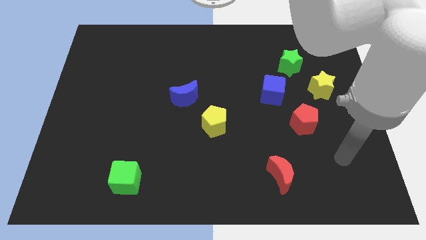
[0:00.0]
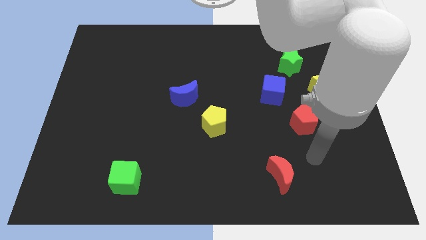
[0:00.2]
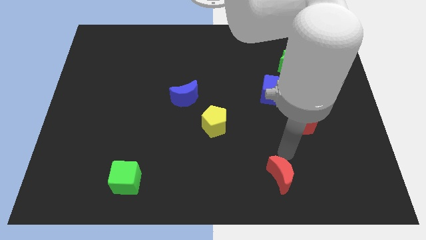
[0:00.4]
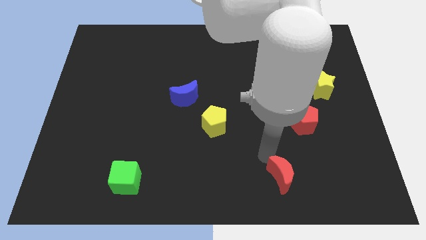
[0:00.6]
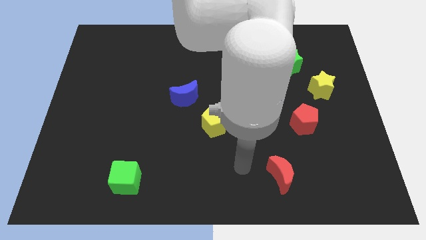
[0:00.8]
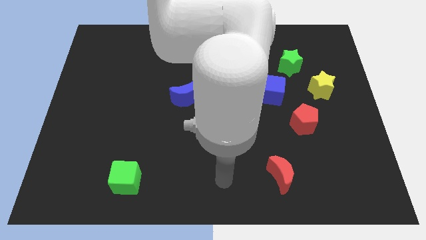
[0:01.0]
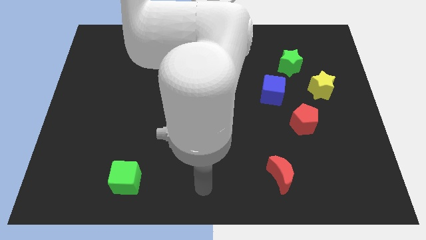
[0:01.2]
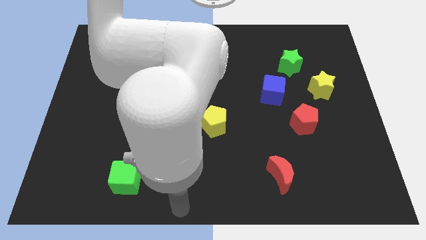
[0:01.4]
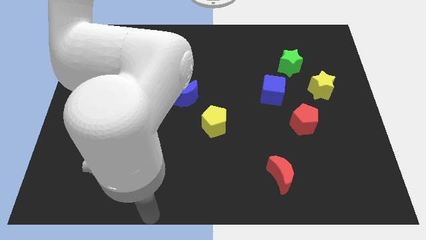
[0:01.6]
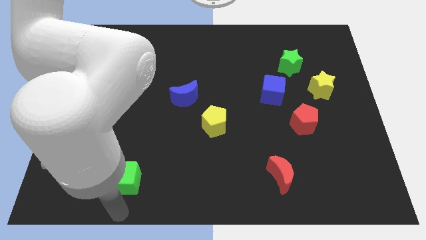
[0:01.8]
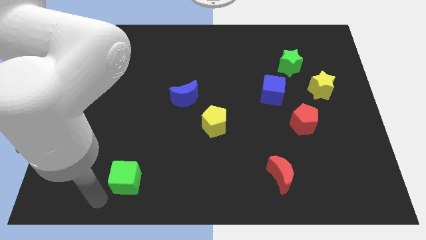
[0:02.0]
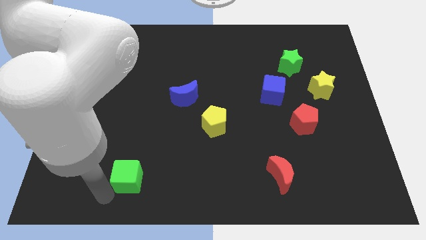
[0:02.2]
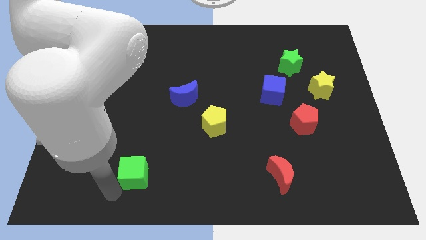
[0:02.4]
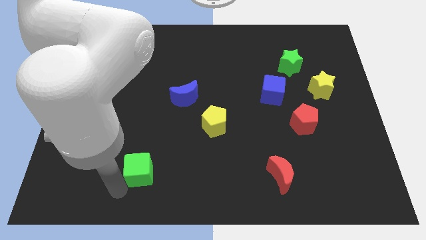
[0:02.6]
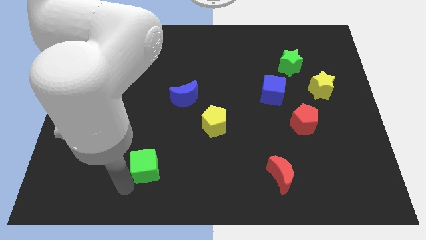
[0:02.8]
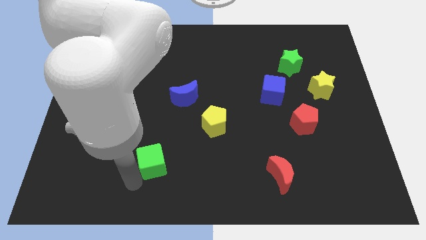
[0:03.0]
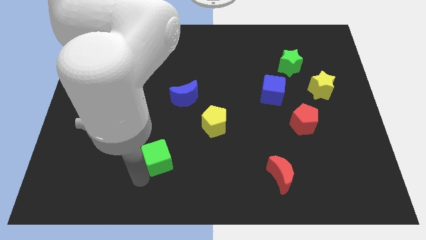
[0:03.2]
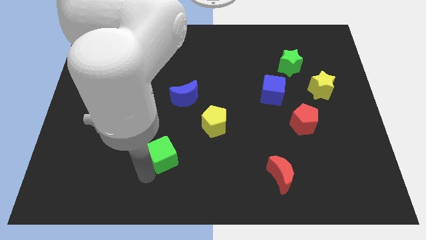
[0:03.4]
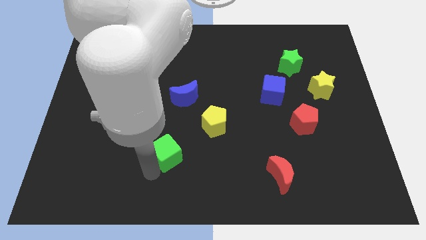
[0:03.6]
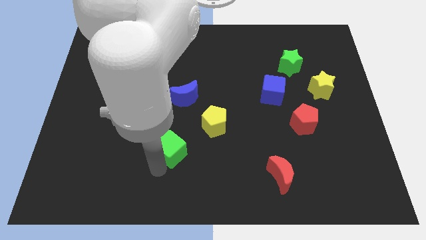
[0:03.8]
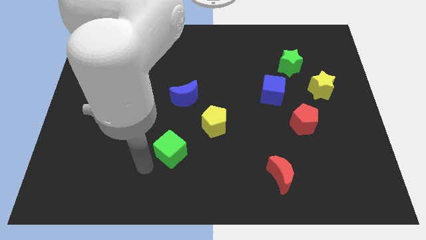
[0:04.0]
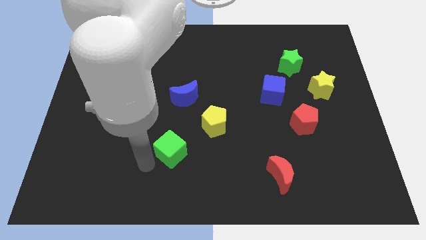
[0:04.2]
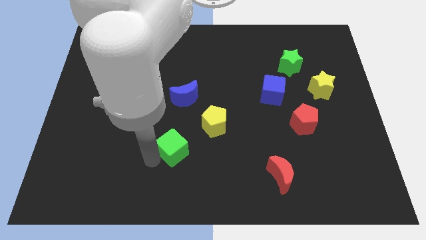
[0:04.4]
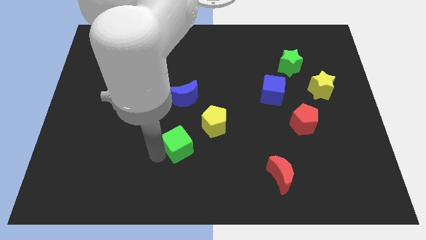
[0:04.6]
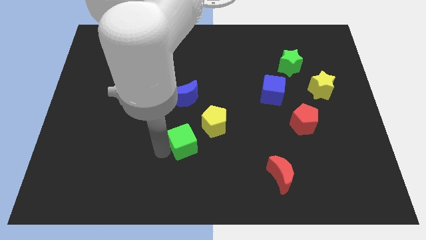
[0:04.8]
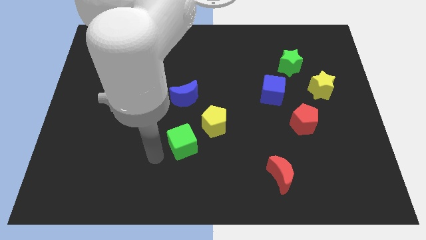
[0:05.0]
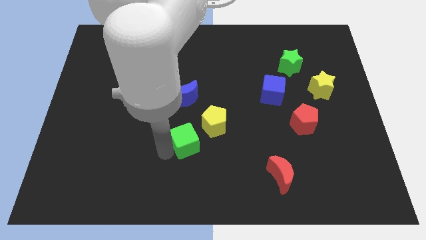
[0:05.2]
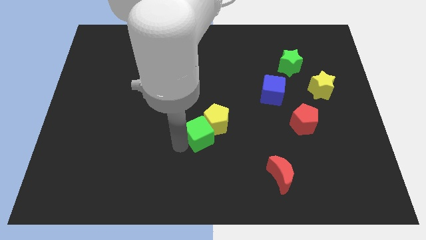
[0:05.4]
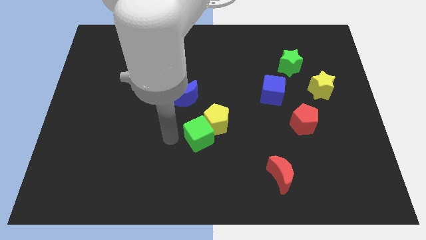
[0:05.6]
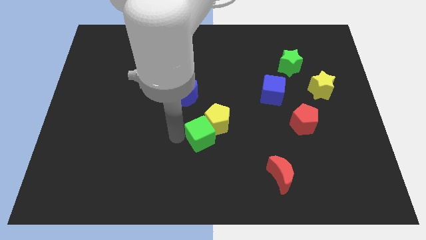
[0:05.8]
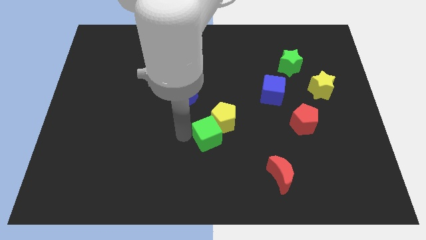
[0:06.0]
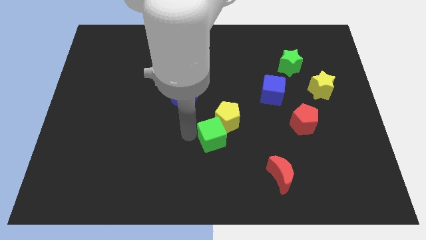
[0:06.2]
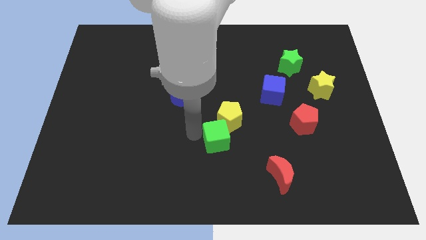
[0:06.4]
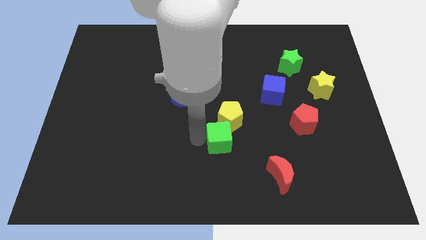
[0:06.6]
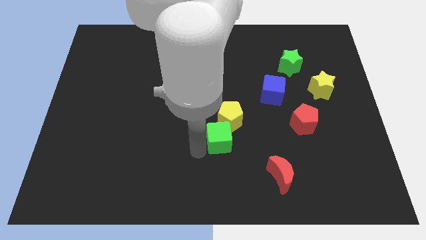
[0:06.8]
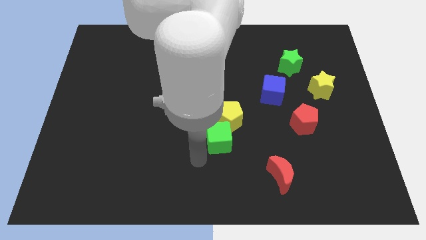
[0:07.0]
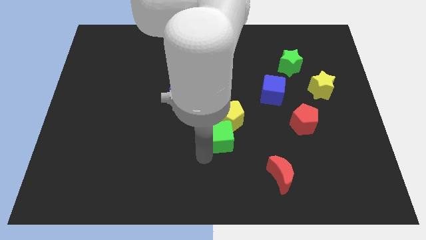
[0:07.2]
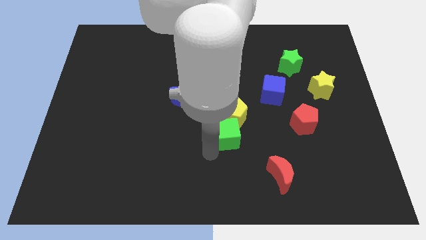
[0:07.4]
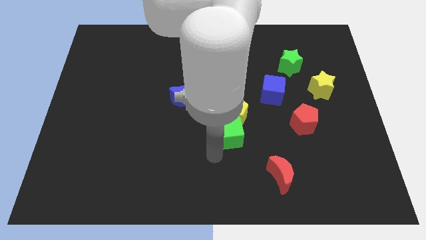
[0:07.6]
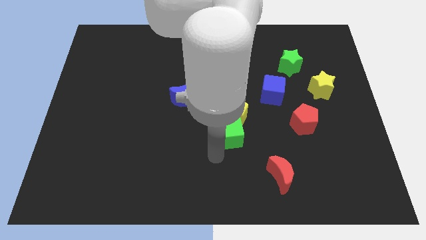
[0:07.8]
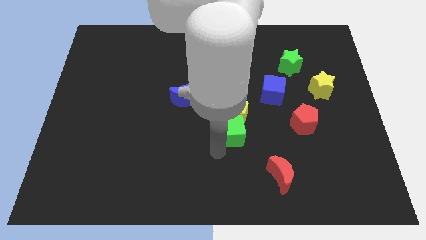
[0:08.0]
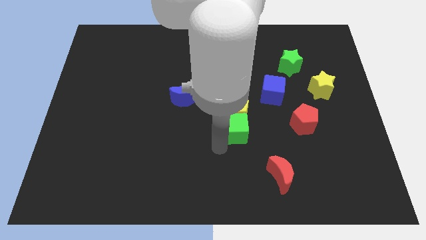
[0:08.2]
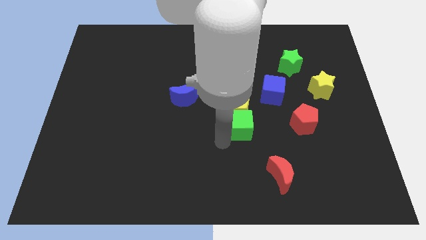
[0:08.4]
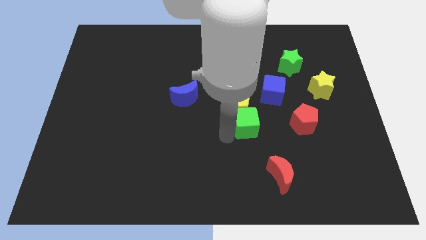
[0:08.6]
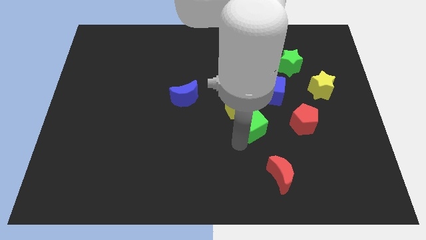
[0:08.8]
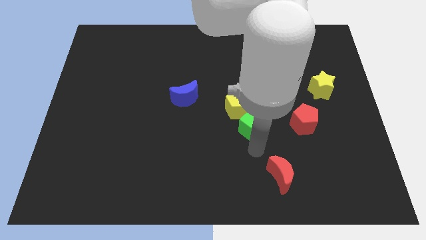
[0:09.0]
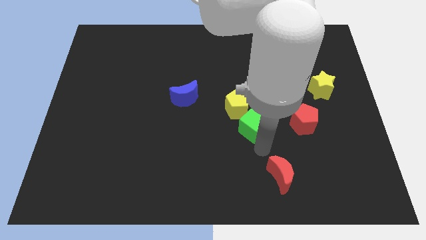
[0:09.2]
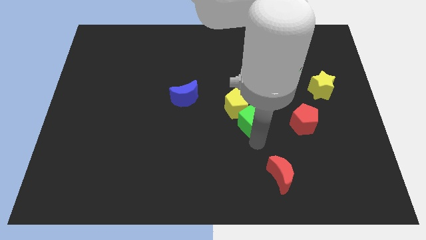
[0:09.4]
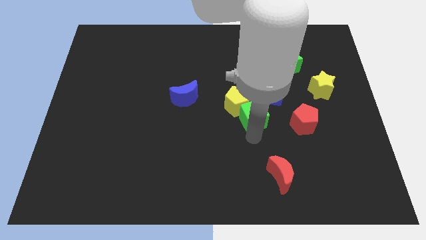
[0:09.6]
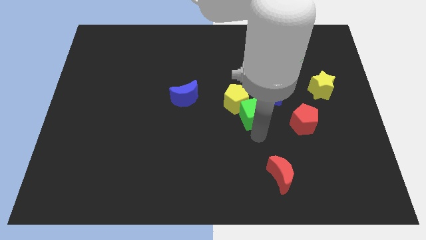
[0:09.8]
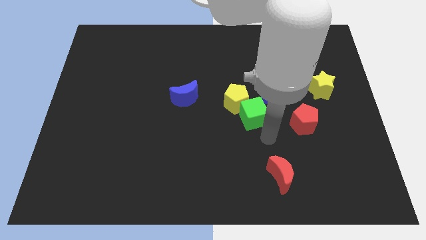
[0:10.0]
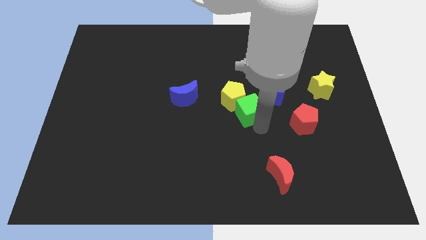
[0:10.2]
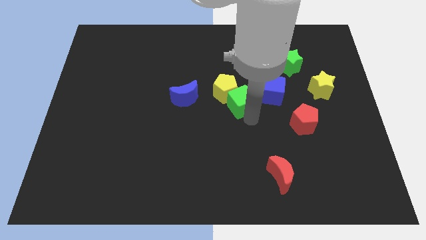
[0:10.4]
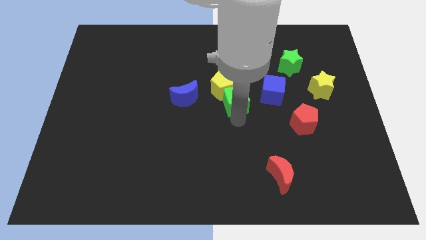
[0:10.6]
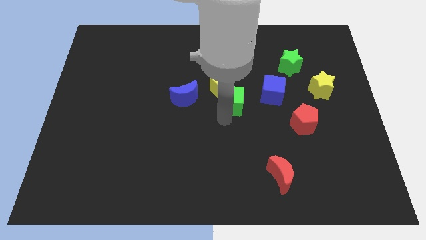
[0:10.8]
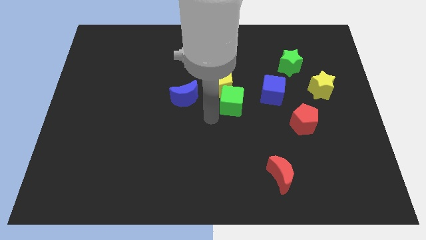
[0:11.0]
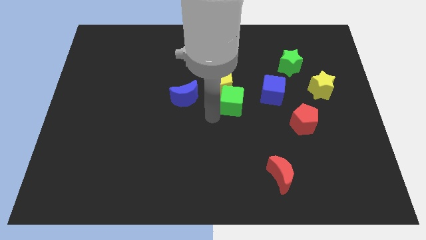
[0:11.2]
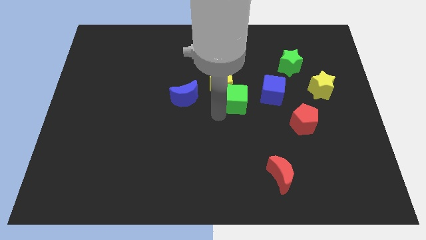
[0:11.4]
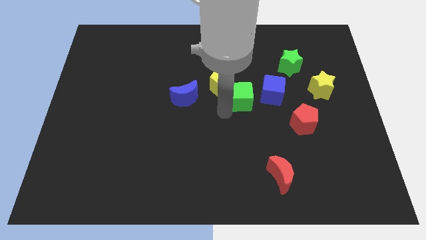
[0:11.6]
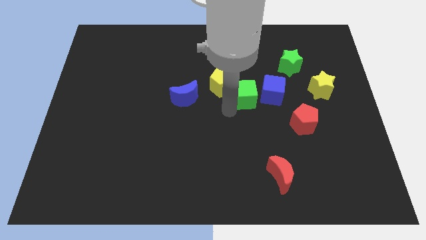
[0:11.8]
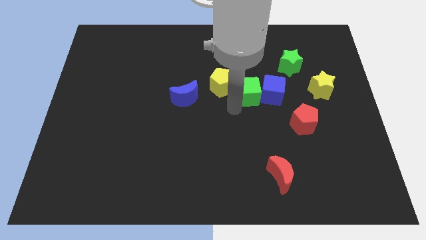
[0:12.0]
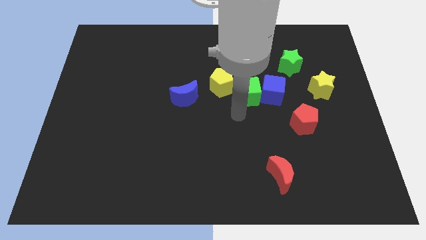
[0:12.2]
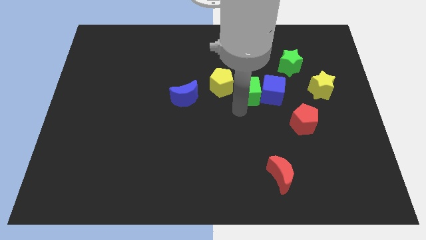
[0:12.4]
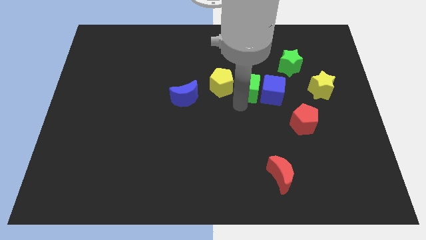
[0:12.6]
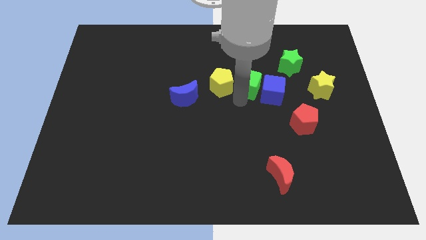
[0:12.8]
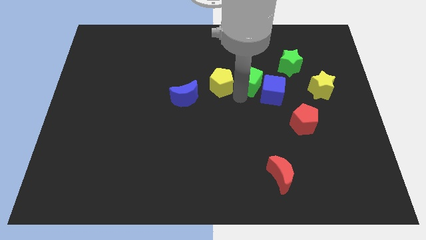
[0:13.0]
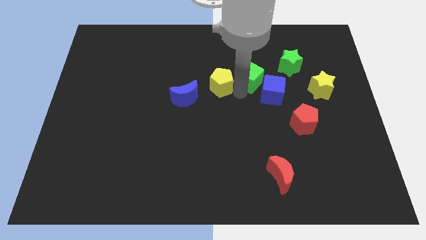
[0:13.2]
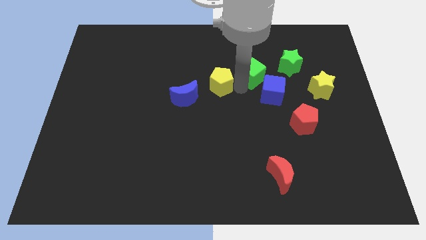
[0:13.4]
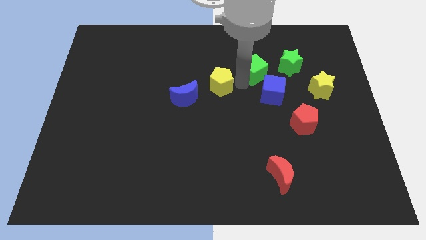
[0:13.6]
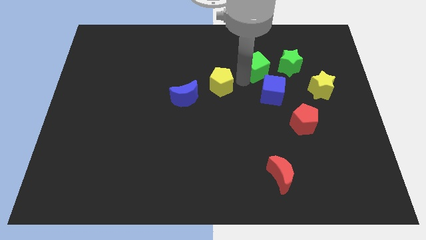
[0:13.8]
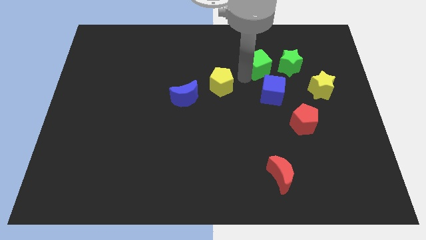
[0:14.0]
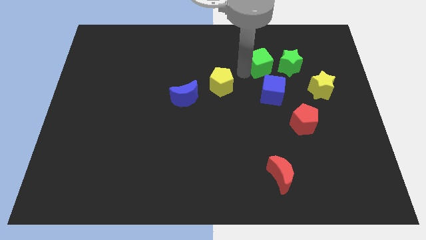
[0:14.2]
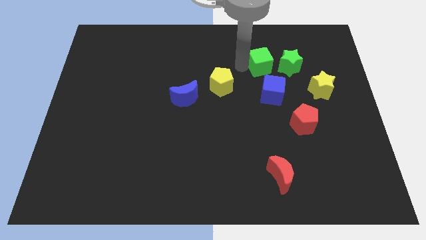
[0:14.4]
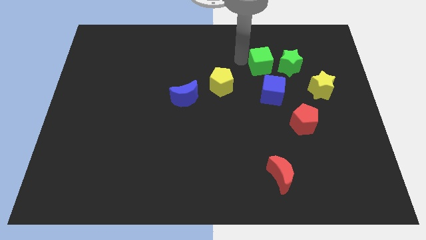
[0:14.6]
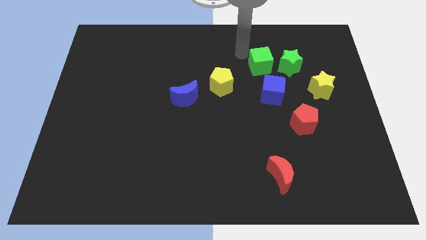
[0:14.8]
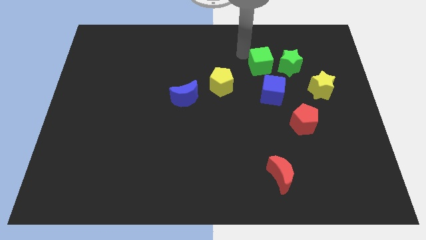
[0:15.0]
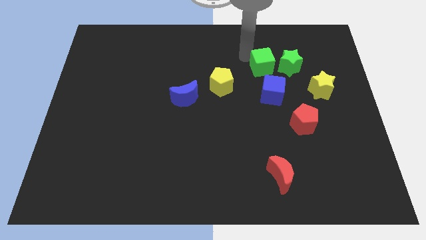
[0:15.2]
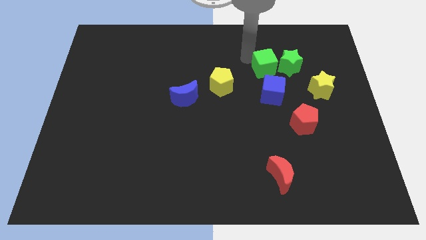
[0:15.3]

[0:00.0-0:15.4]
put the green cube close to the green star

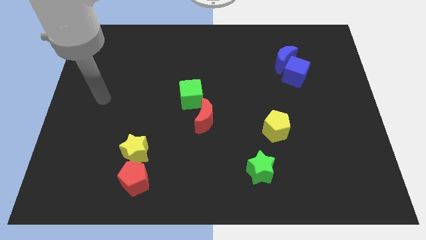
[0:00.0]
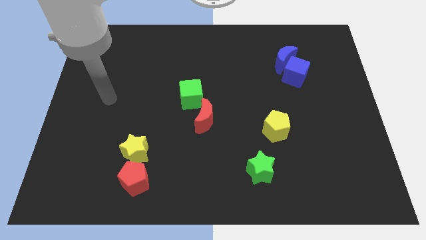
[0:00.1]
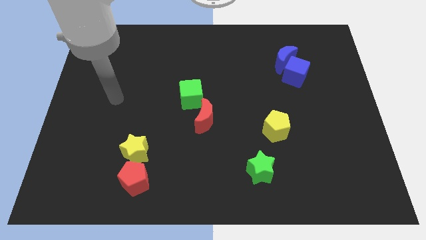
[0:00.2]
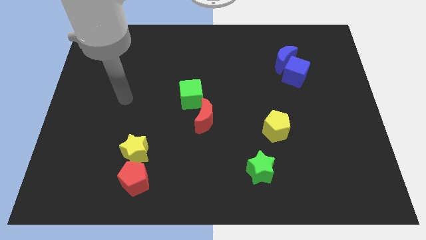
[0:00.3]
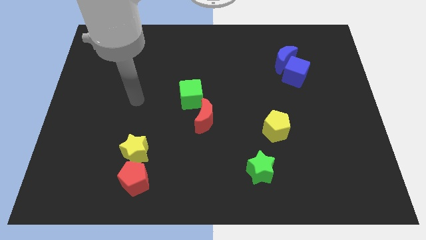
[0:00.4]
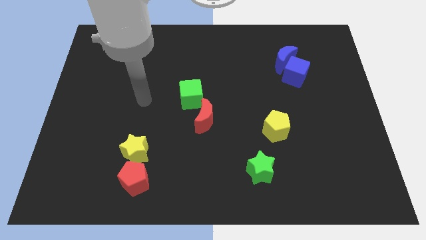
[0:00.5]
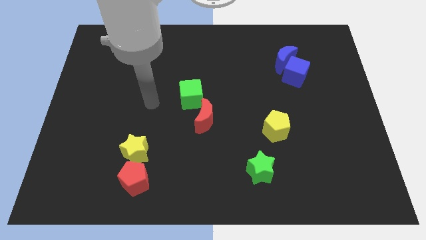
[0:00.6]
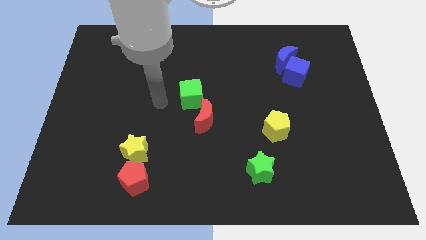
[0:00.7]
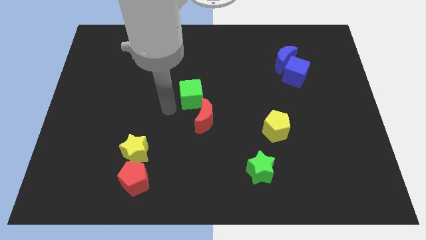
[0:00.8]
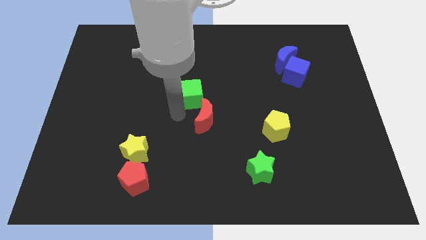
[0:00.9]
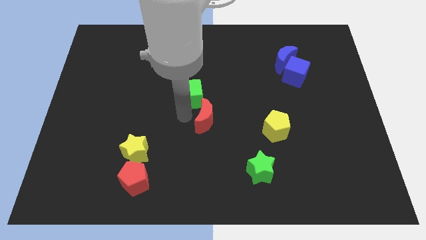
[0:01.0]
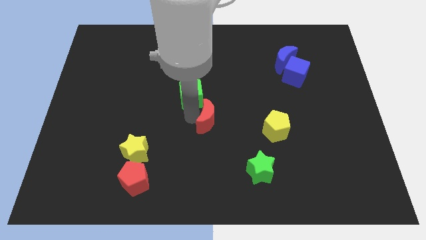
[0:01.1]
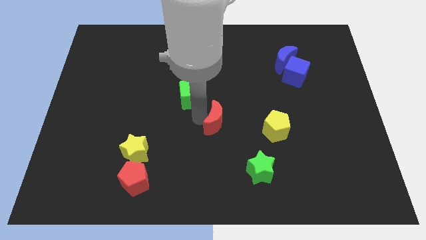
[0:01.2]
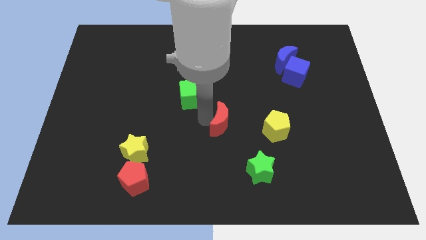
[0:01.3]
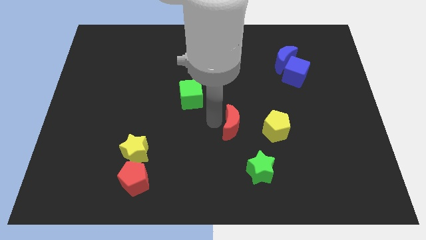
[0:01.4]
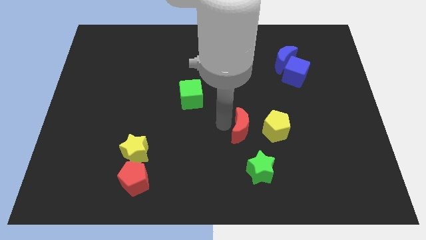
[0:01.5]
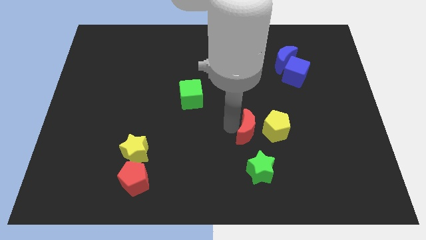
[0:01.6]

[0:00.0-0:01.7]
put the red moon next to the yellow pentagon
